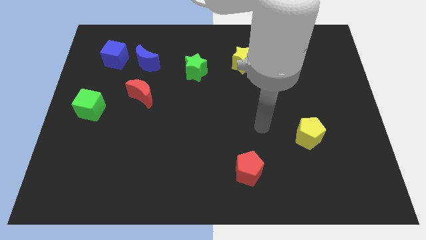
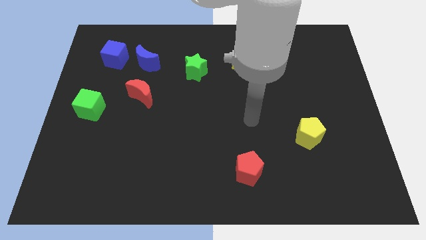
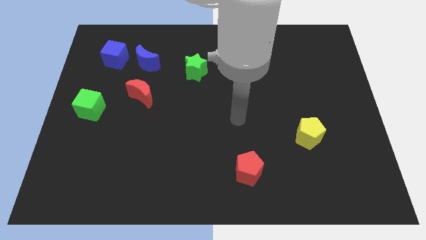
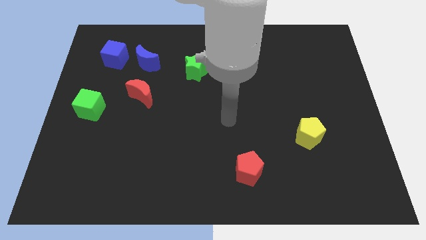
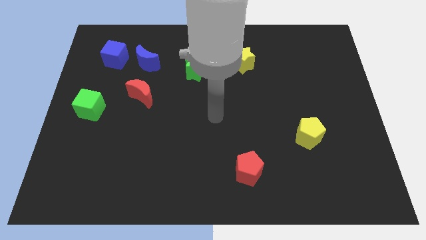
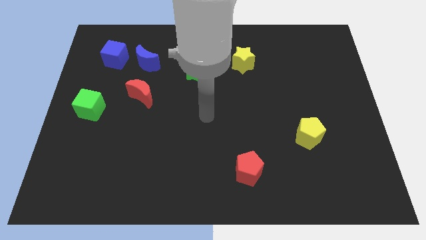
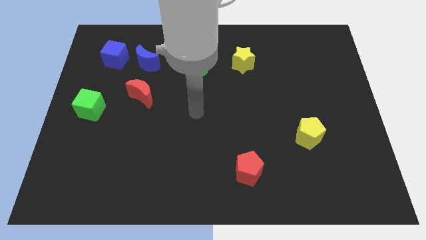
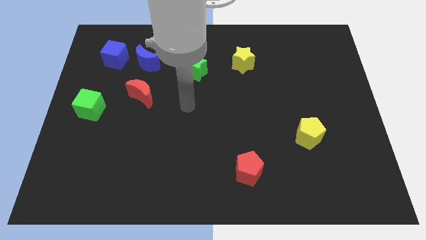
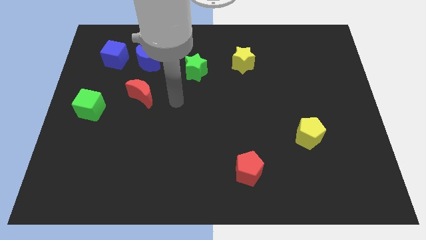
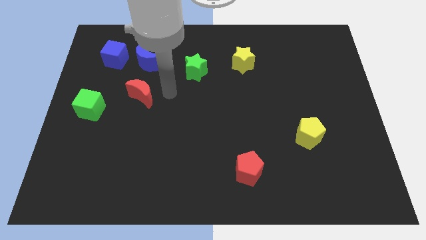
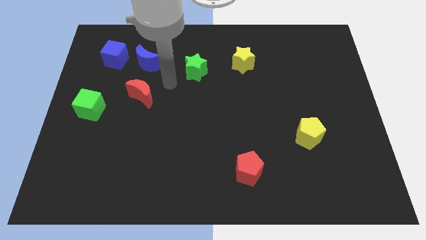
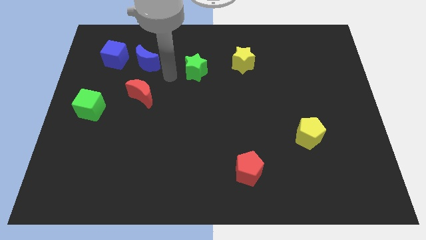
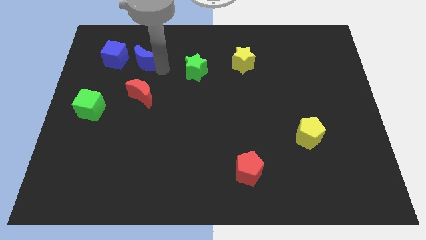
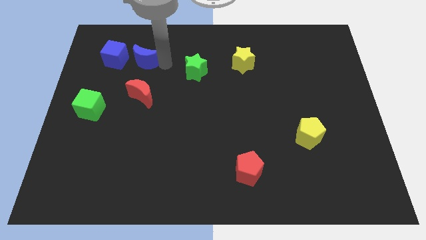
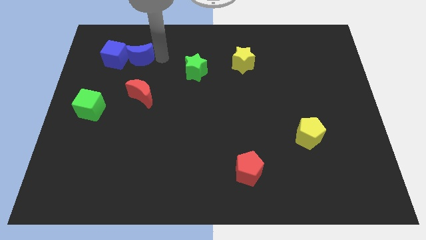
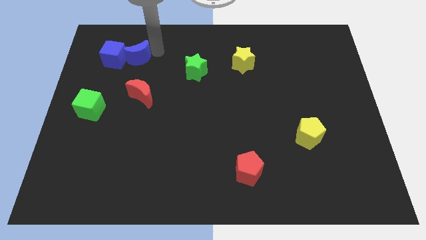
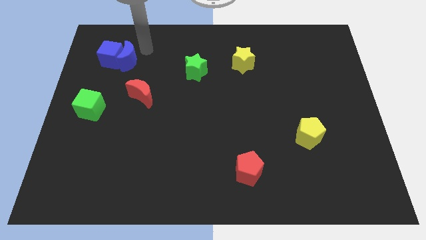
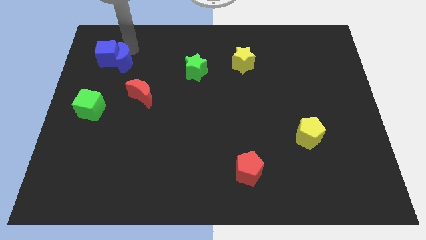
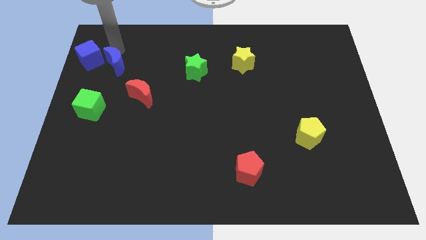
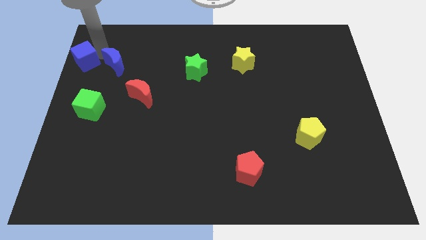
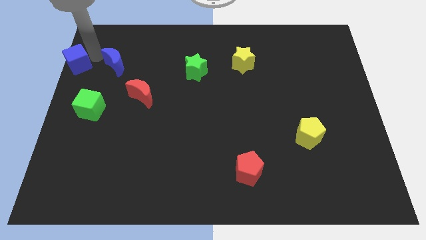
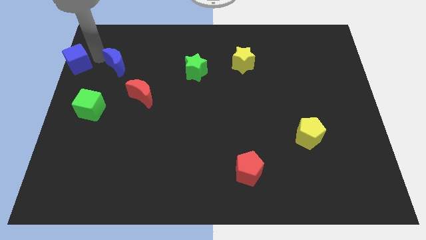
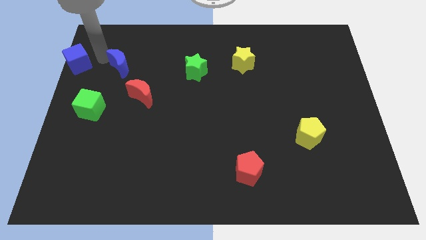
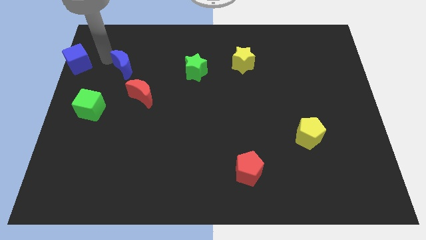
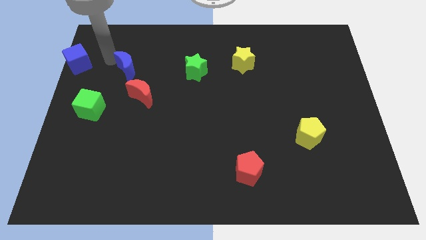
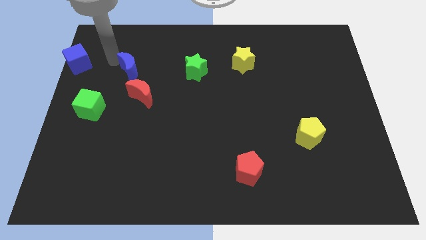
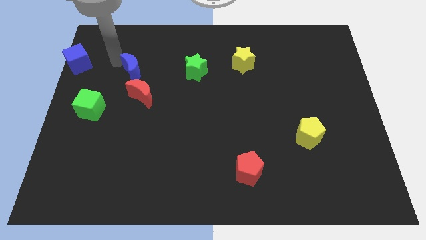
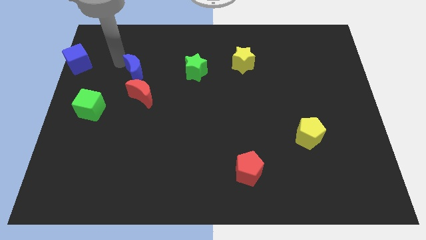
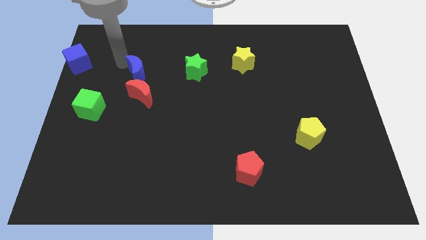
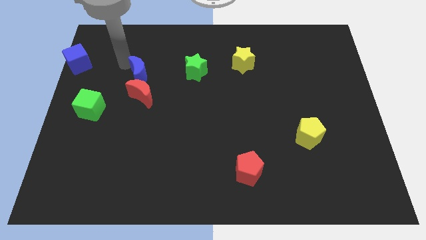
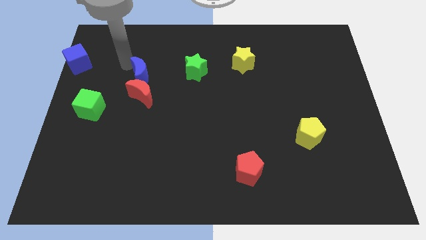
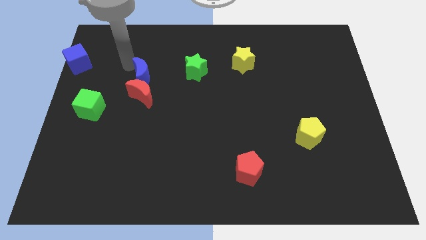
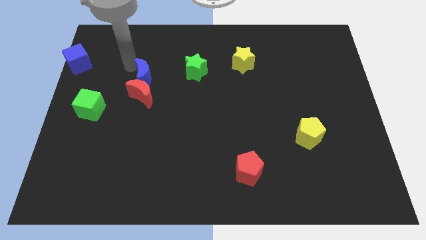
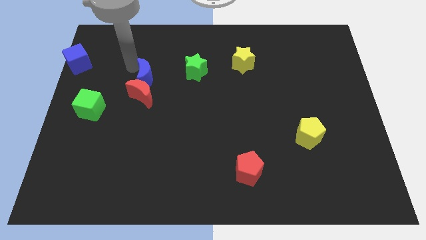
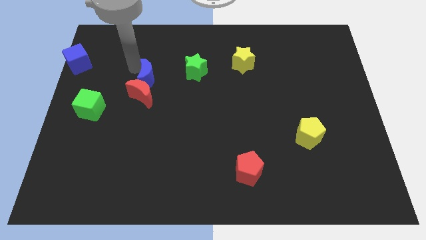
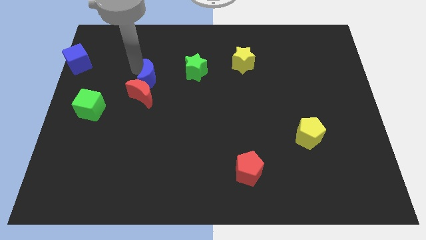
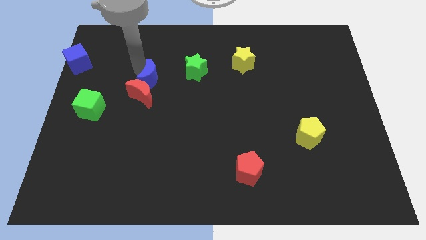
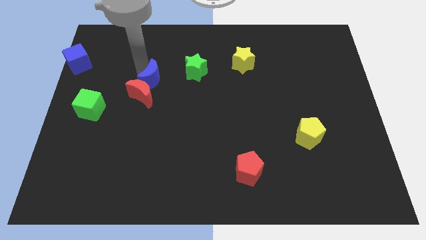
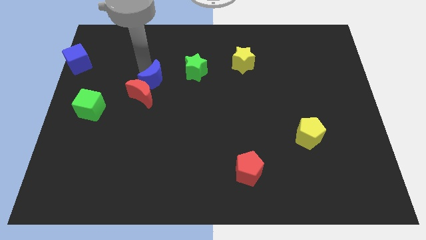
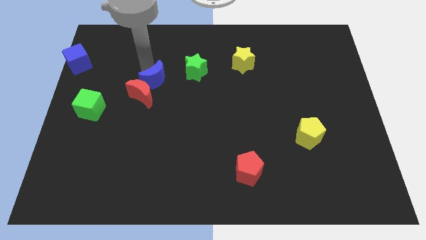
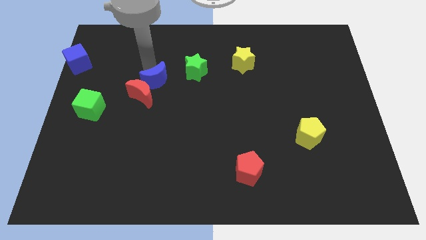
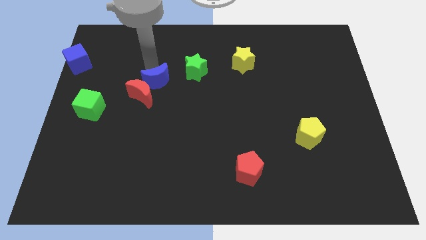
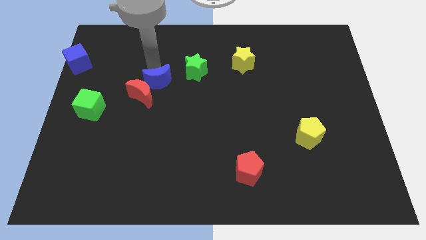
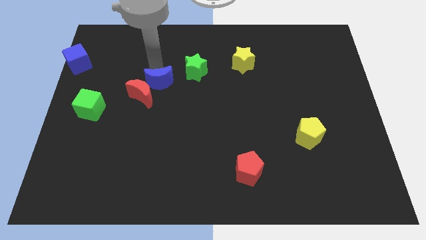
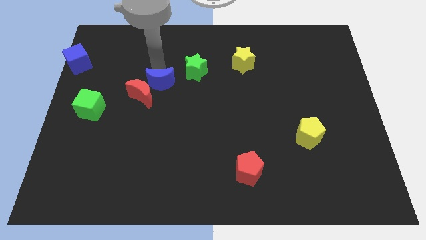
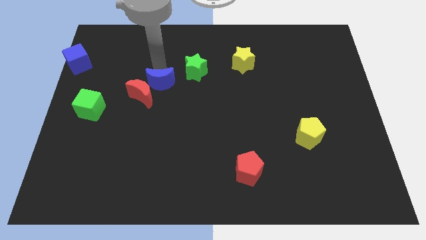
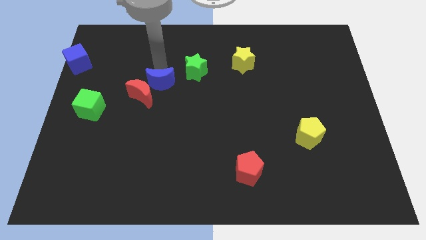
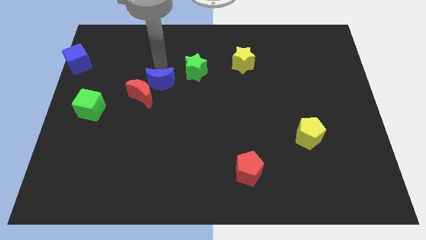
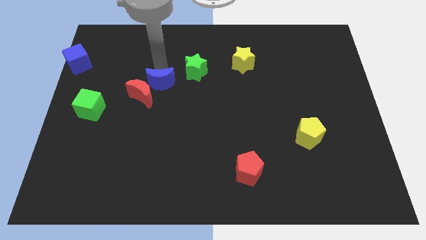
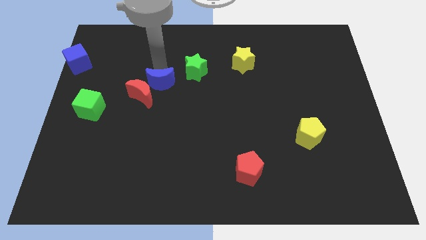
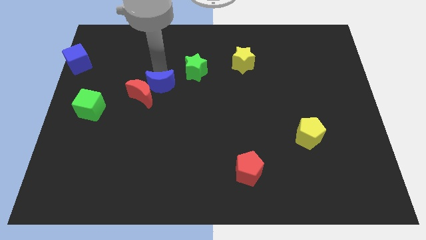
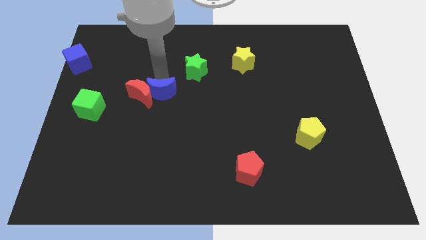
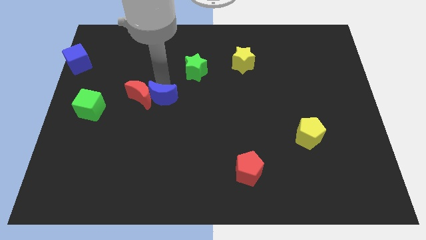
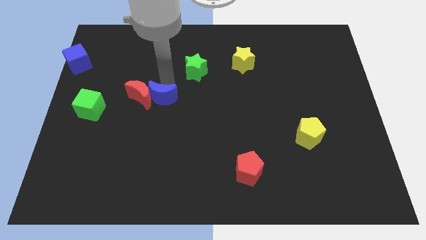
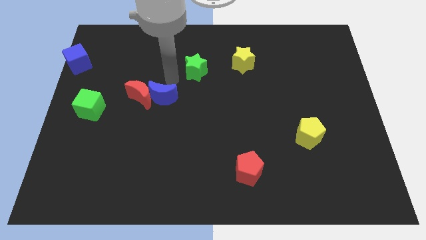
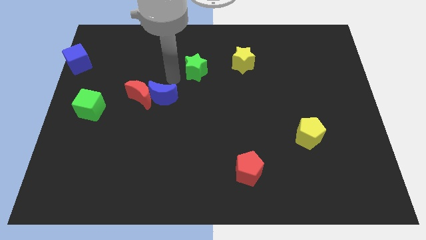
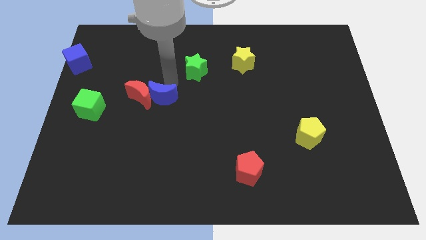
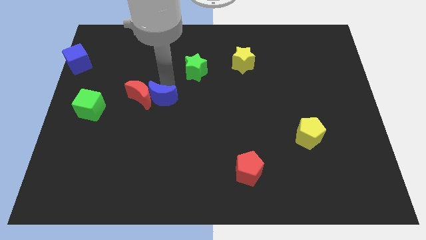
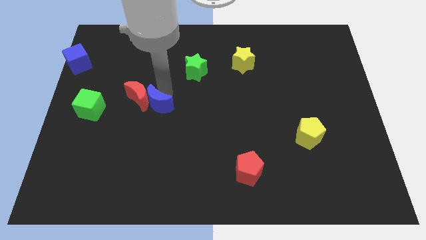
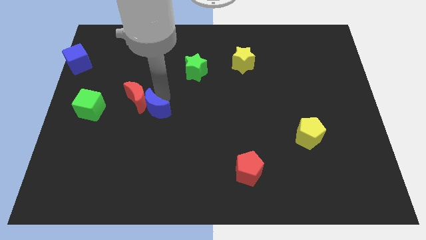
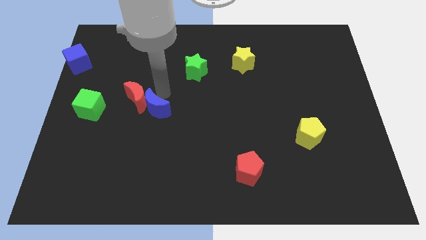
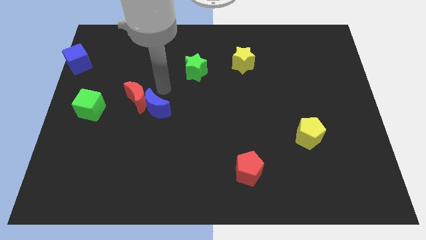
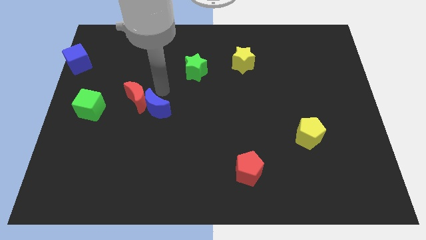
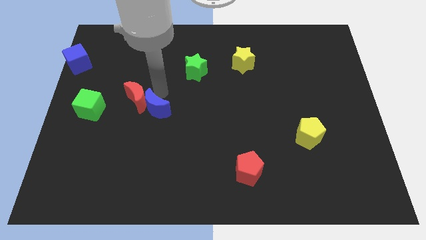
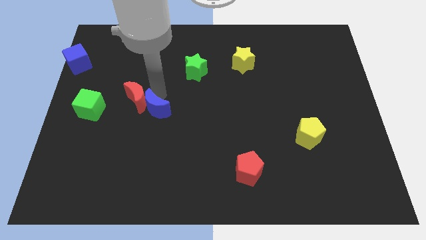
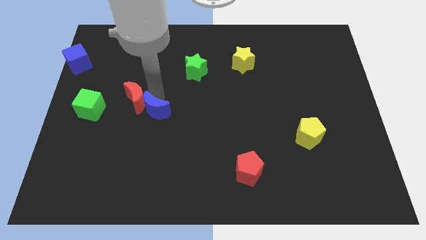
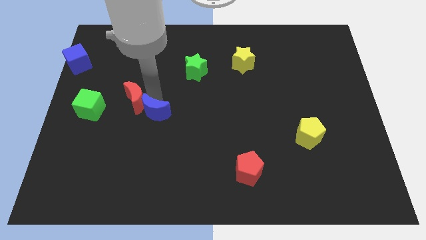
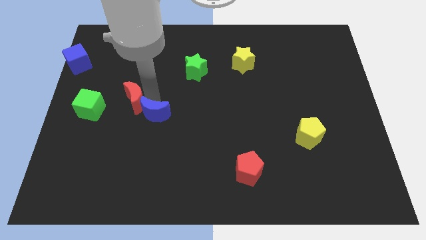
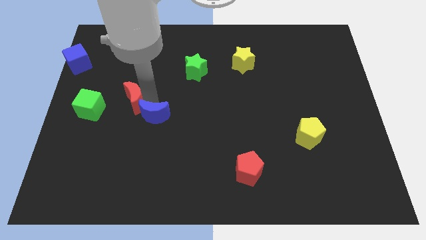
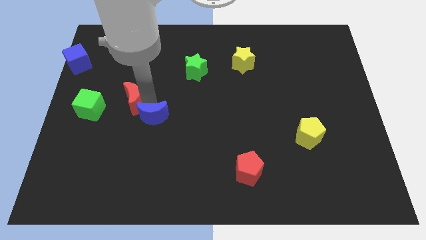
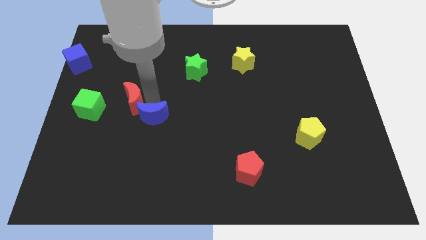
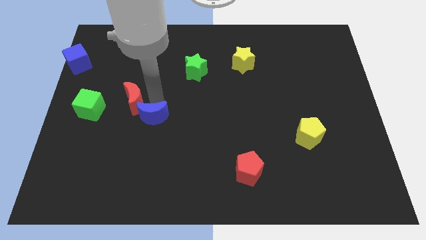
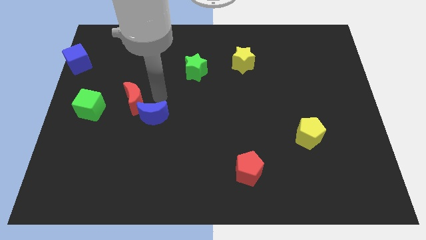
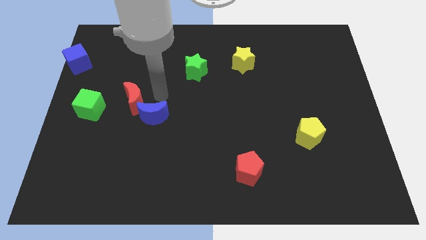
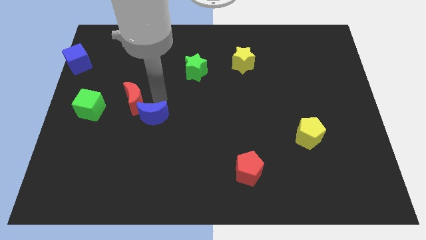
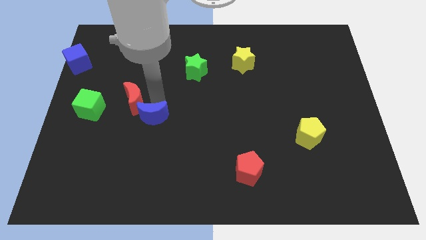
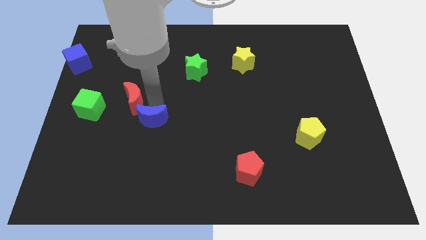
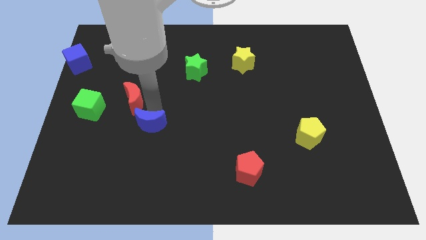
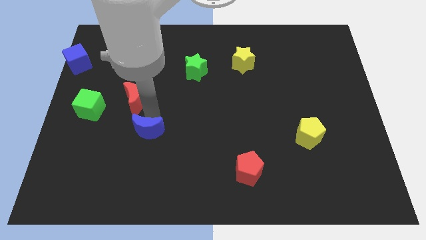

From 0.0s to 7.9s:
move the blue moon down
